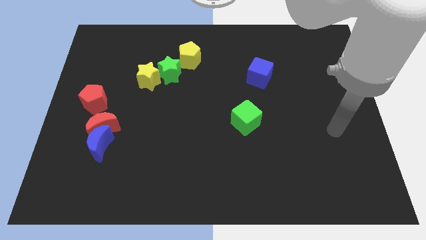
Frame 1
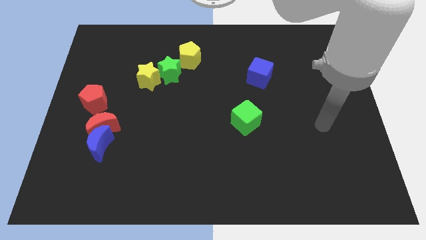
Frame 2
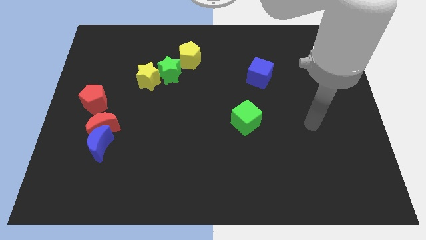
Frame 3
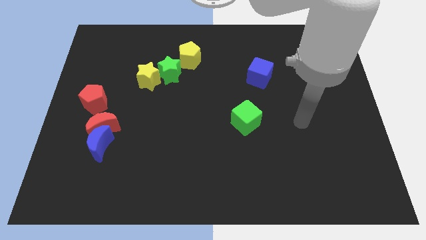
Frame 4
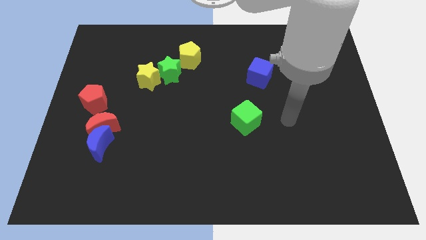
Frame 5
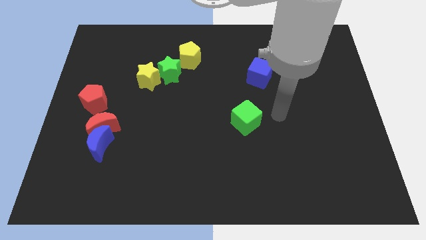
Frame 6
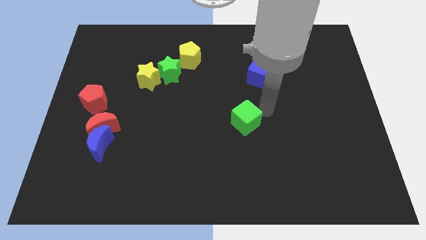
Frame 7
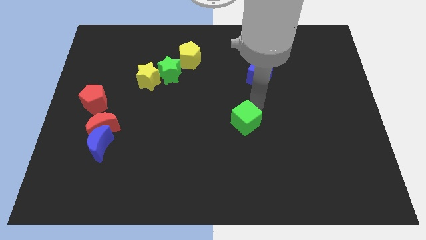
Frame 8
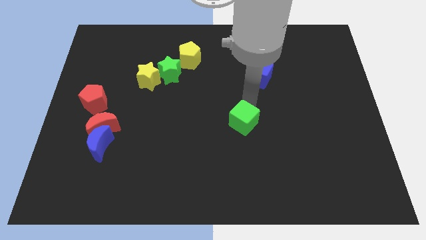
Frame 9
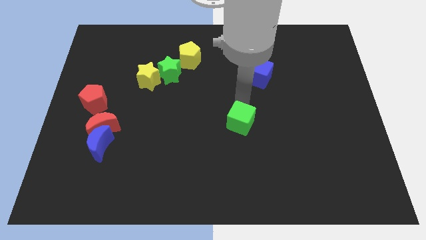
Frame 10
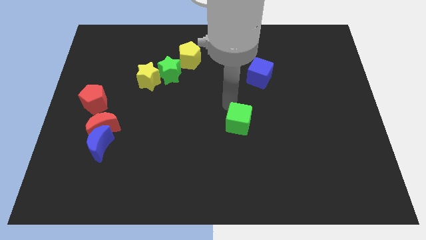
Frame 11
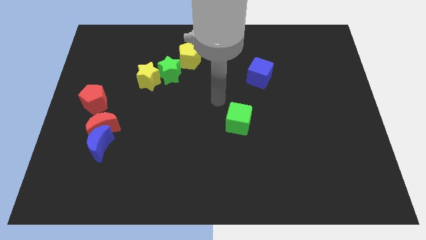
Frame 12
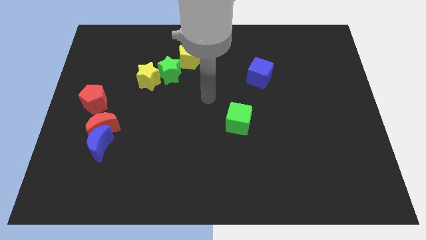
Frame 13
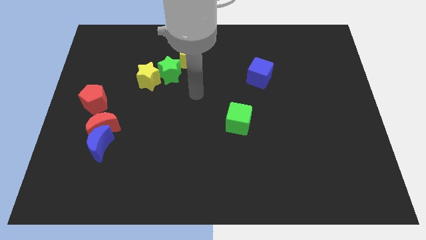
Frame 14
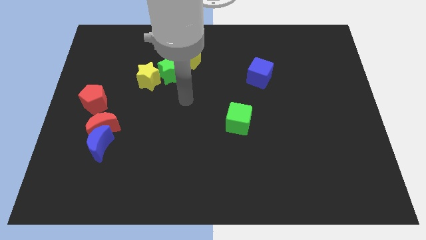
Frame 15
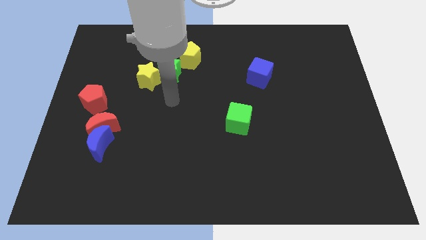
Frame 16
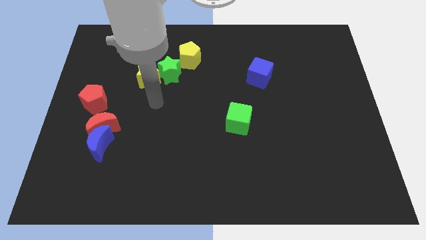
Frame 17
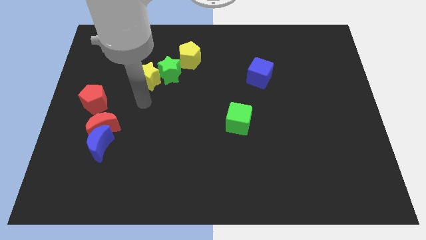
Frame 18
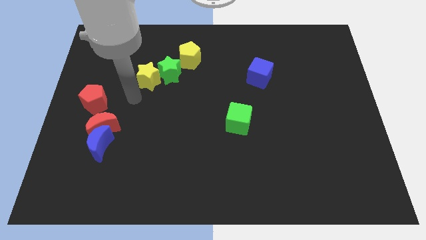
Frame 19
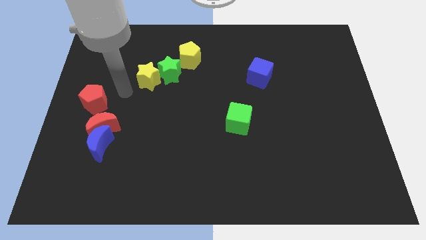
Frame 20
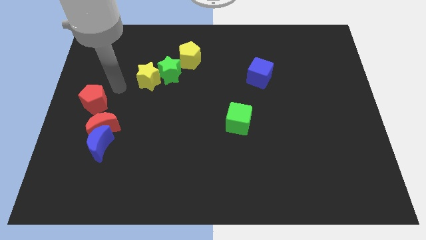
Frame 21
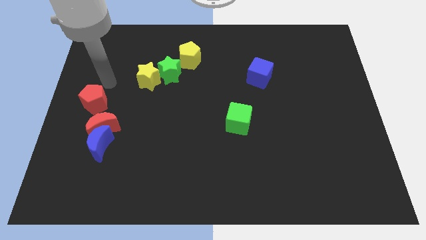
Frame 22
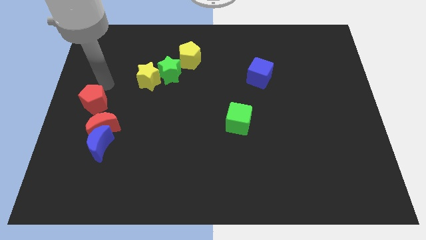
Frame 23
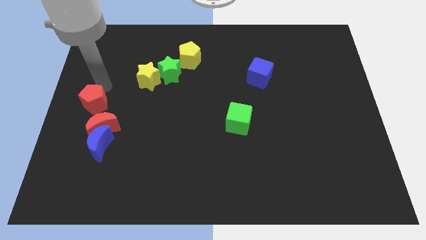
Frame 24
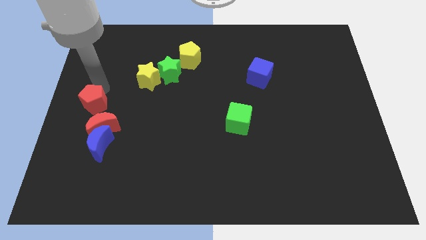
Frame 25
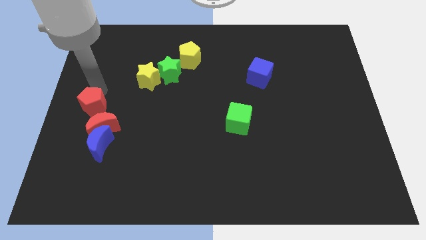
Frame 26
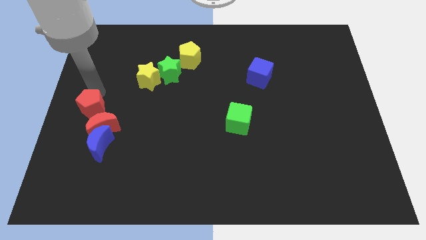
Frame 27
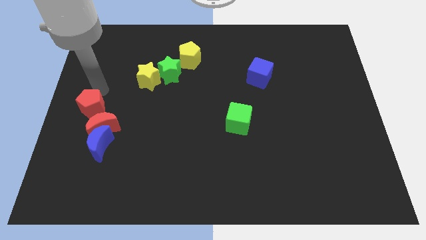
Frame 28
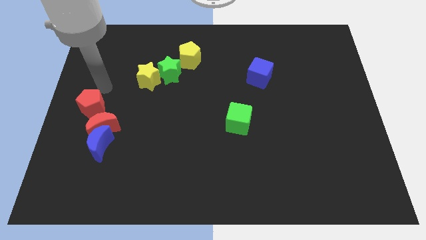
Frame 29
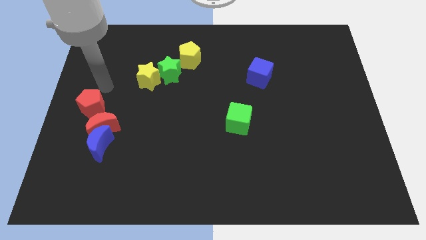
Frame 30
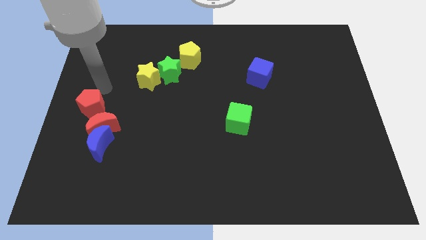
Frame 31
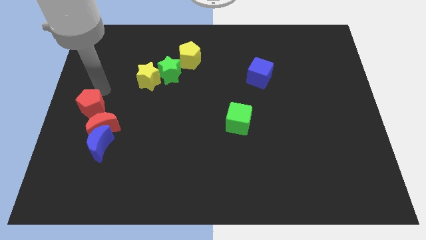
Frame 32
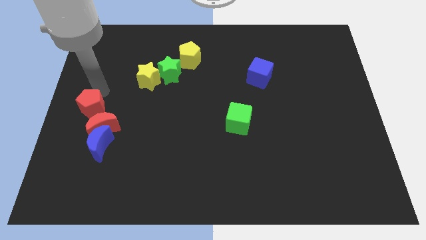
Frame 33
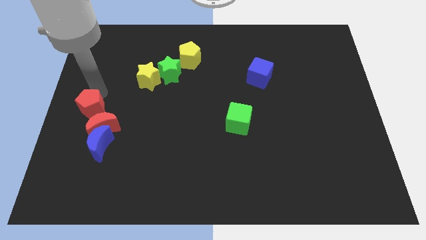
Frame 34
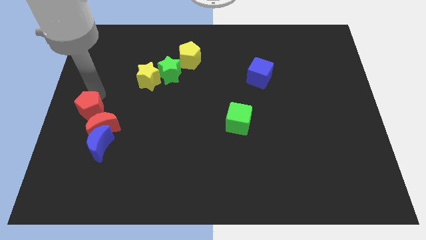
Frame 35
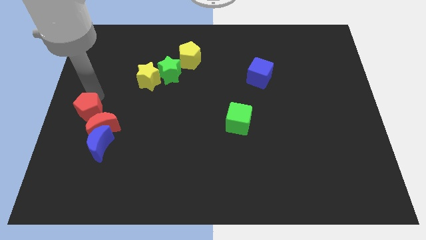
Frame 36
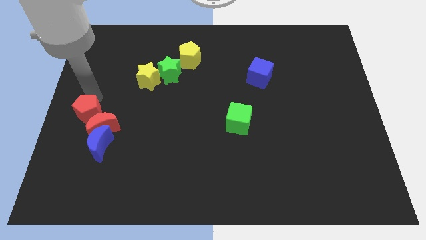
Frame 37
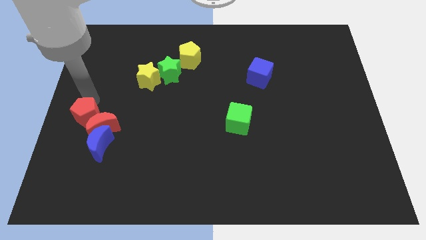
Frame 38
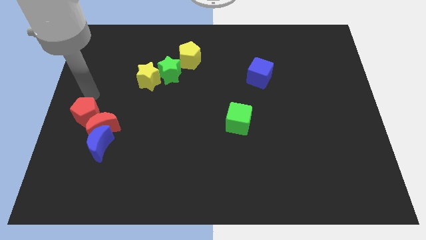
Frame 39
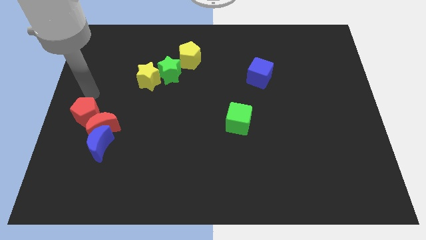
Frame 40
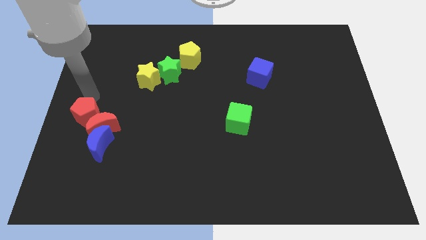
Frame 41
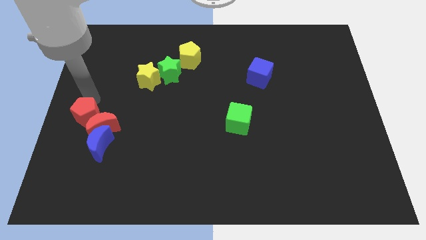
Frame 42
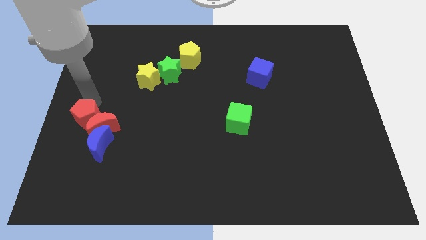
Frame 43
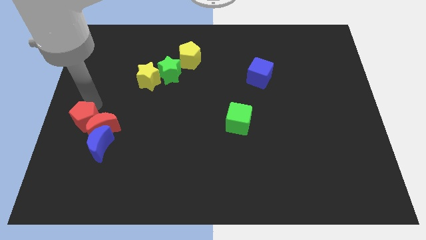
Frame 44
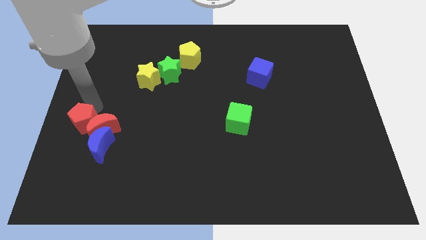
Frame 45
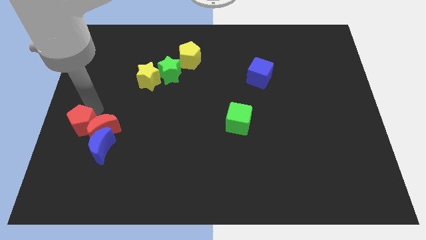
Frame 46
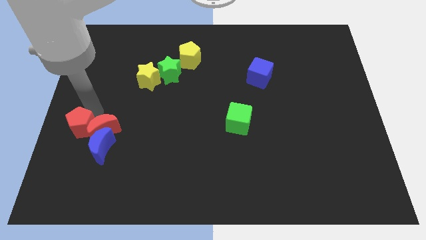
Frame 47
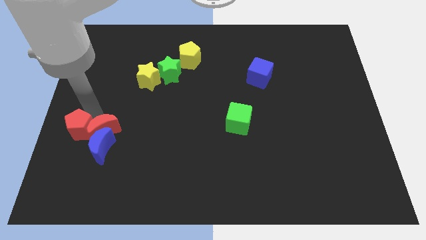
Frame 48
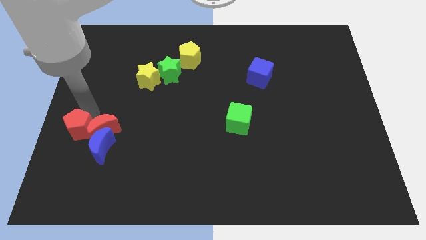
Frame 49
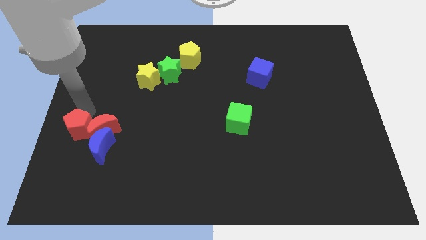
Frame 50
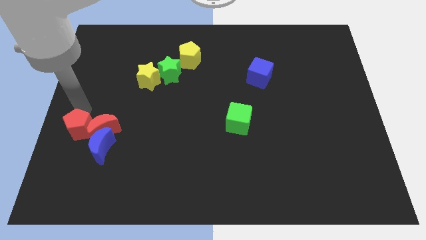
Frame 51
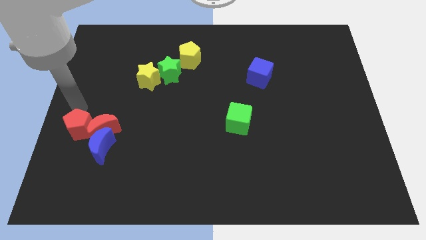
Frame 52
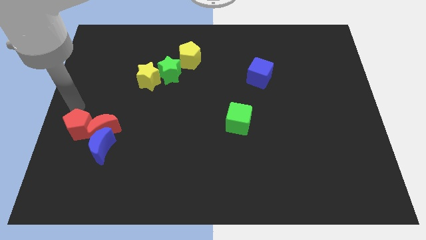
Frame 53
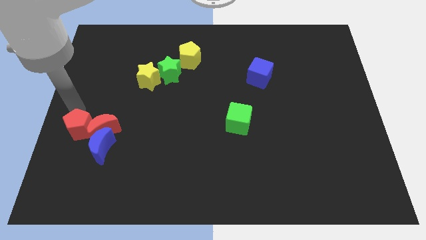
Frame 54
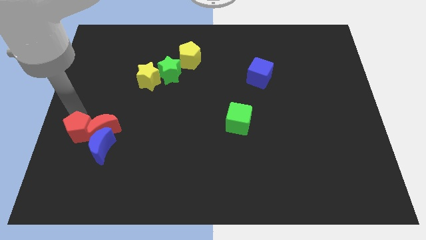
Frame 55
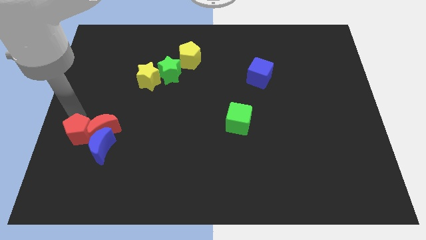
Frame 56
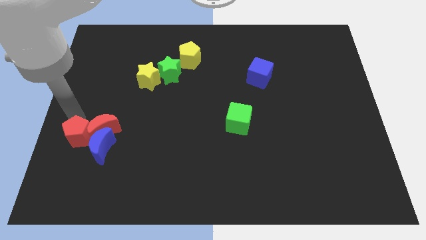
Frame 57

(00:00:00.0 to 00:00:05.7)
push the red pentagon towards the blue moon

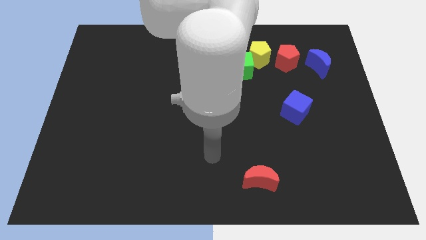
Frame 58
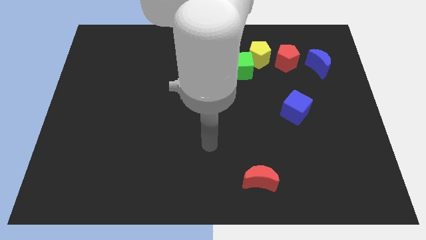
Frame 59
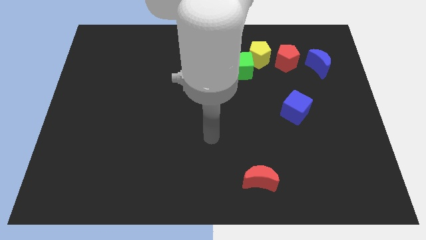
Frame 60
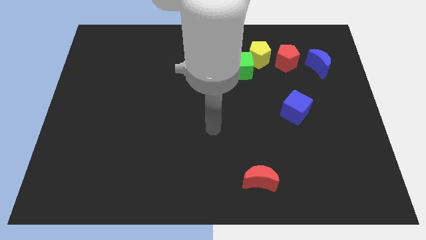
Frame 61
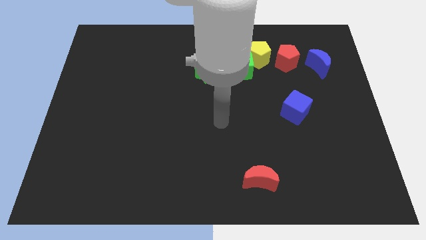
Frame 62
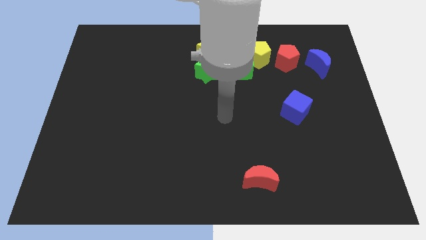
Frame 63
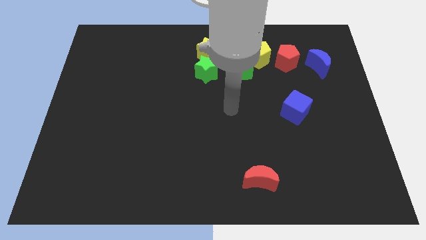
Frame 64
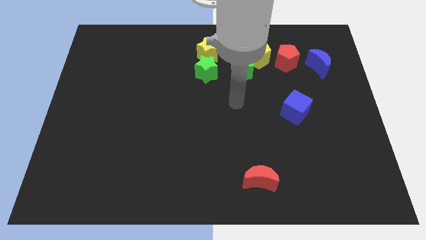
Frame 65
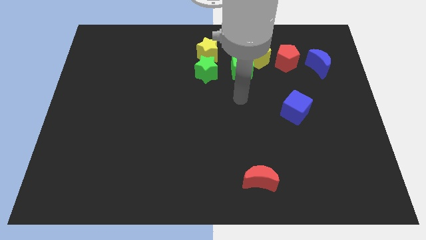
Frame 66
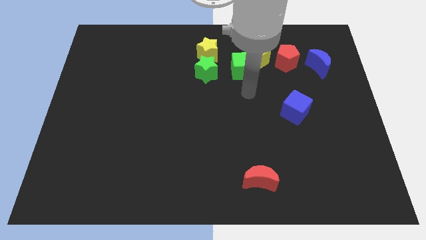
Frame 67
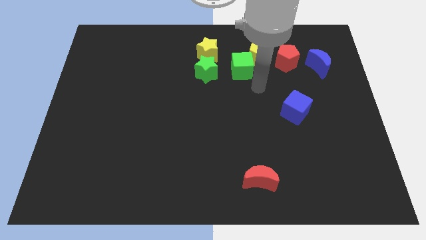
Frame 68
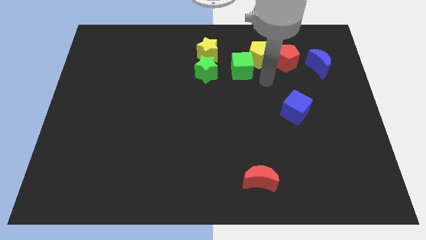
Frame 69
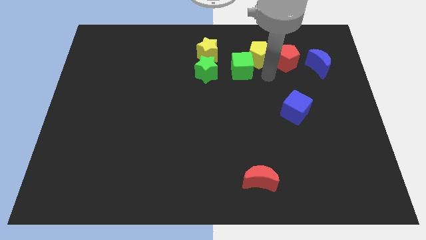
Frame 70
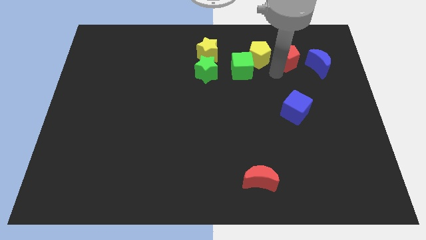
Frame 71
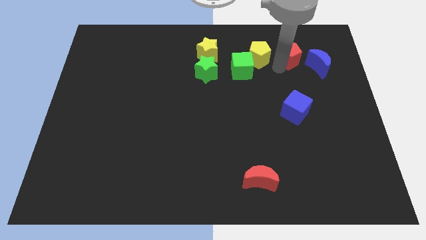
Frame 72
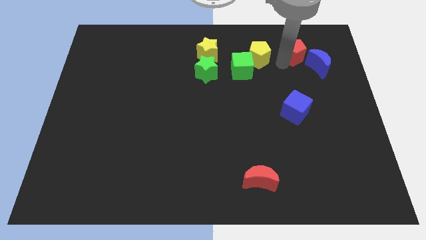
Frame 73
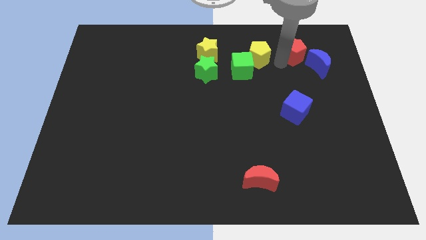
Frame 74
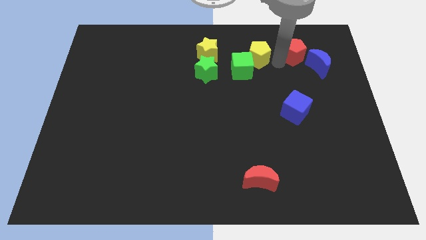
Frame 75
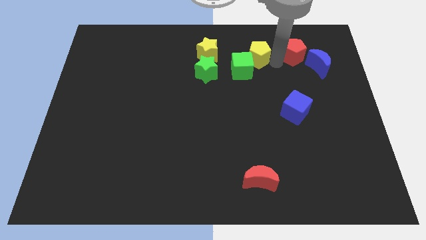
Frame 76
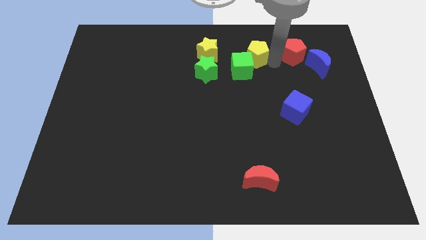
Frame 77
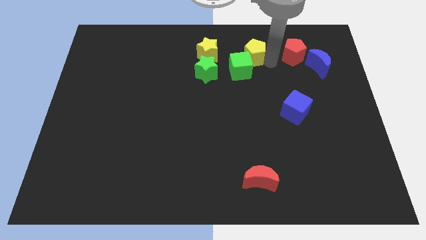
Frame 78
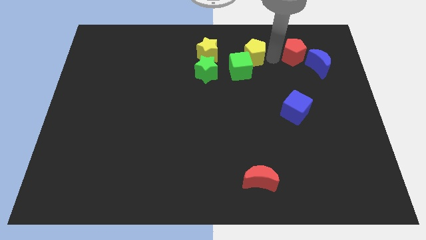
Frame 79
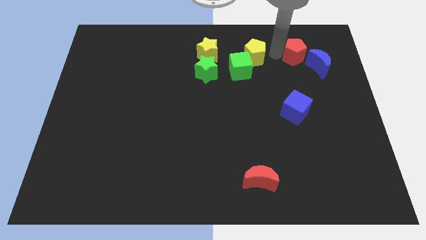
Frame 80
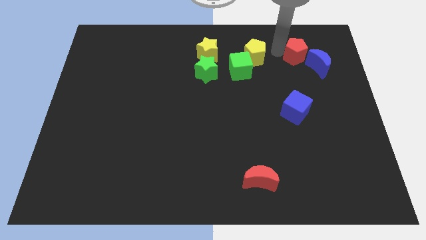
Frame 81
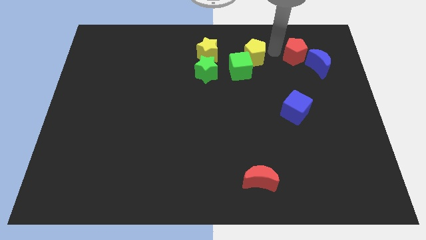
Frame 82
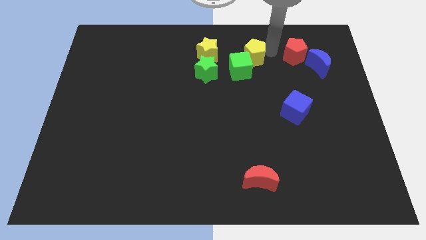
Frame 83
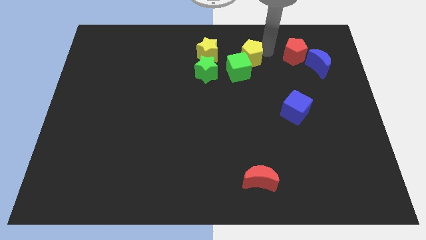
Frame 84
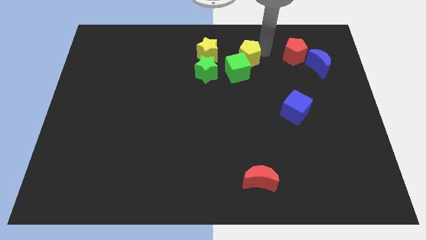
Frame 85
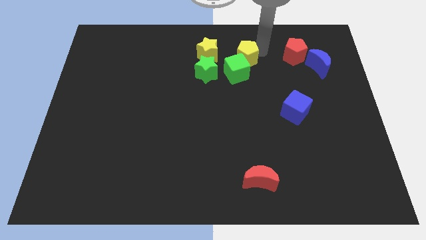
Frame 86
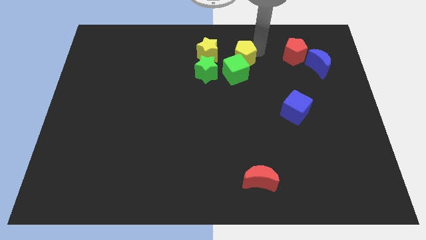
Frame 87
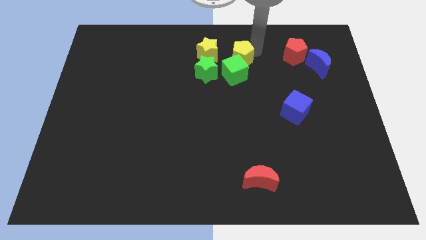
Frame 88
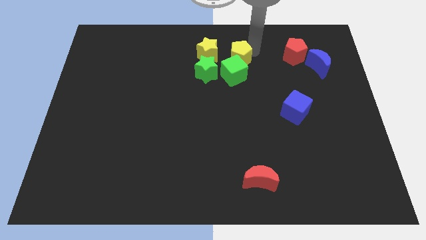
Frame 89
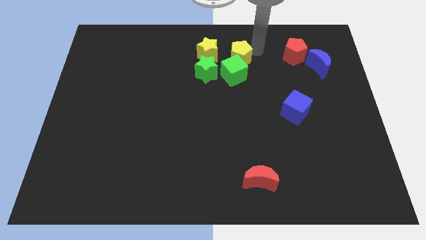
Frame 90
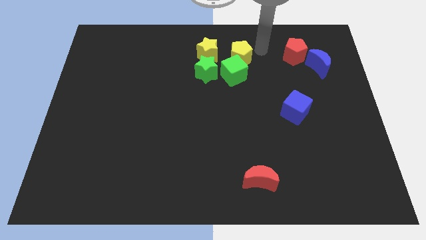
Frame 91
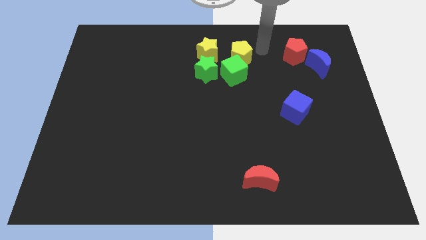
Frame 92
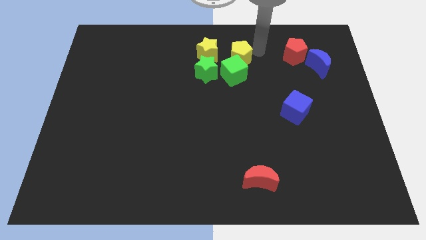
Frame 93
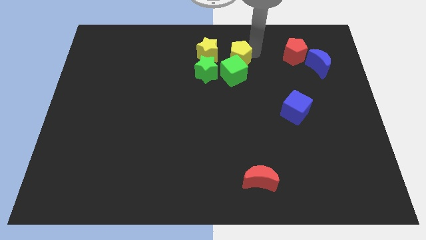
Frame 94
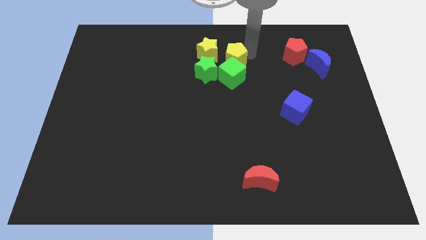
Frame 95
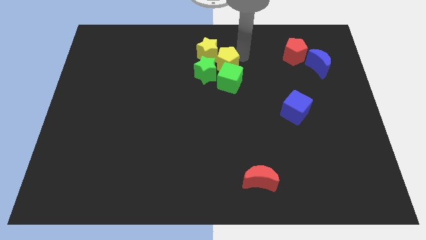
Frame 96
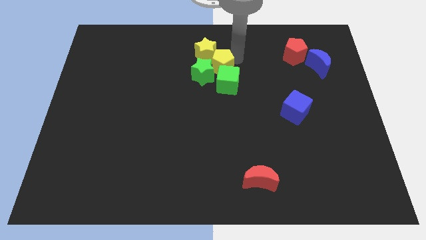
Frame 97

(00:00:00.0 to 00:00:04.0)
slide the yellow pentagon towards the green star
